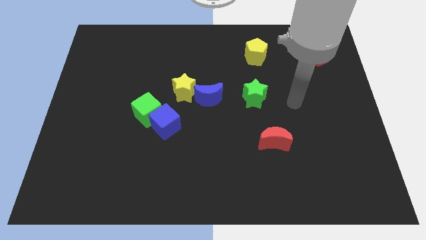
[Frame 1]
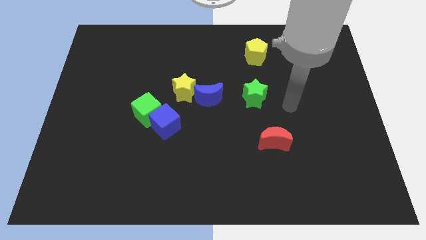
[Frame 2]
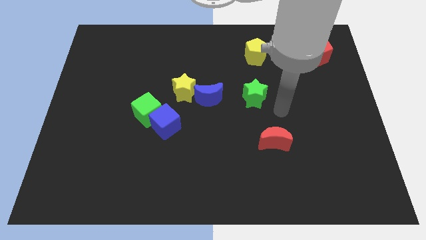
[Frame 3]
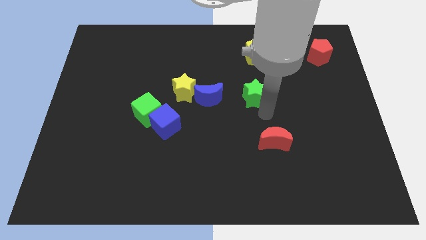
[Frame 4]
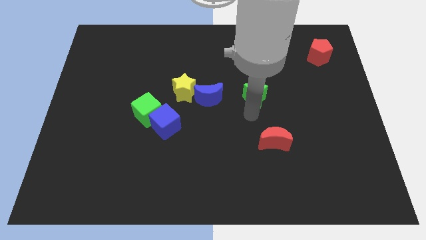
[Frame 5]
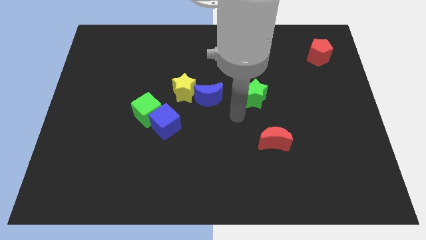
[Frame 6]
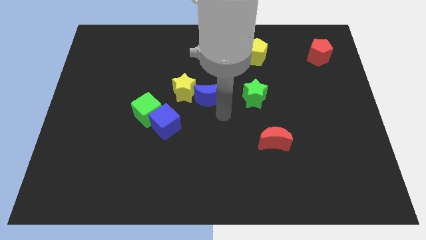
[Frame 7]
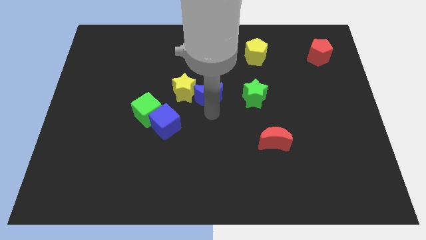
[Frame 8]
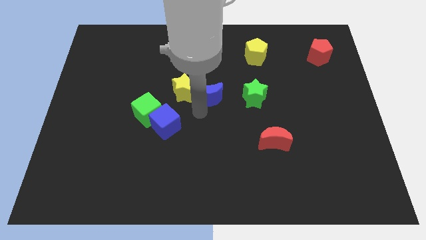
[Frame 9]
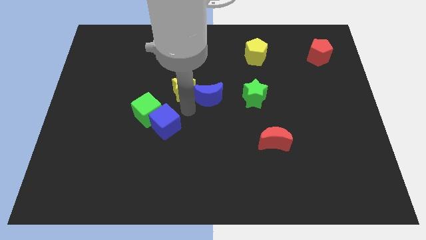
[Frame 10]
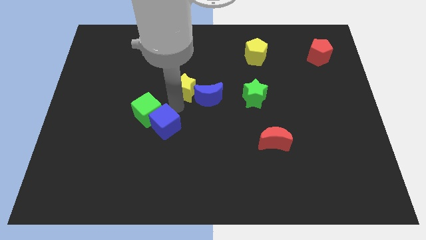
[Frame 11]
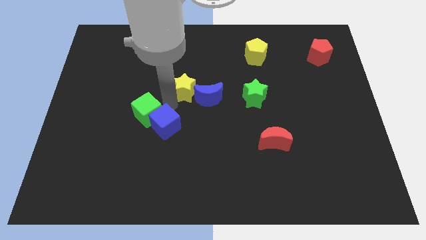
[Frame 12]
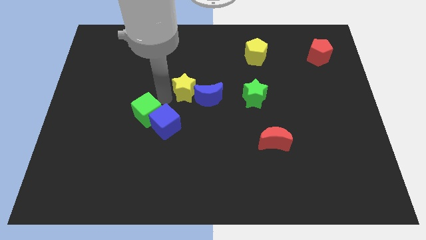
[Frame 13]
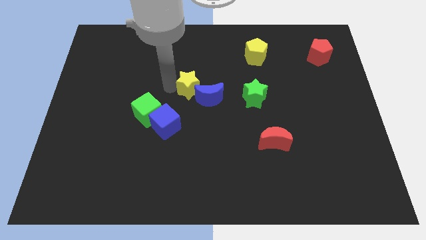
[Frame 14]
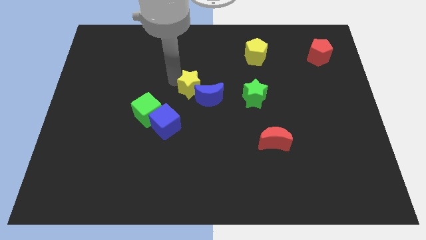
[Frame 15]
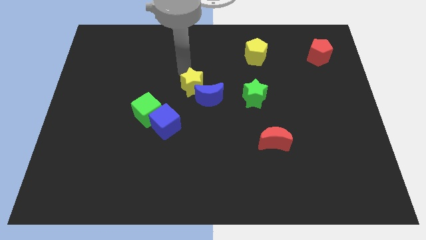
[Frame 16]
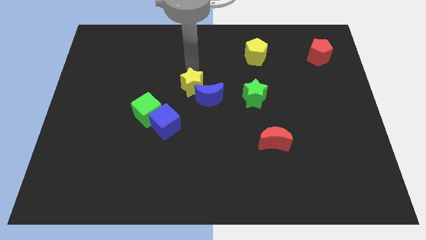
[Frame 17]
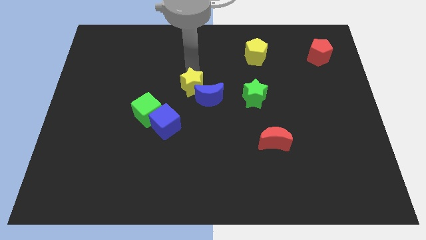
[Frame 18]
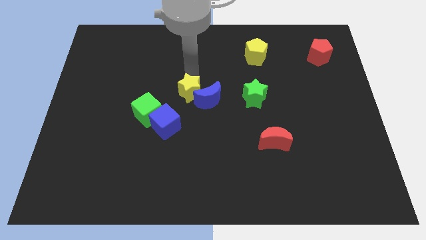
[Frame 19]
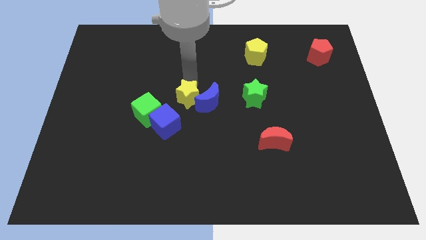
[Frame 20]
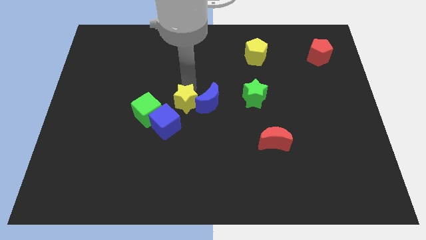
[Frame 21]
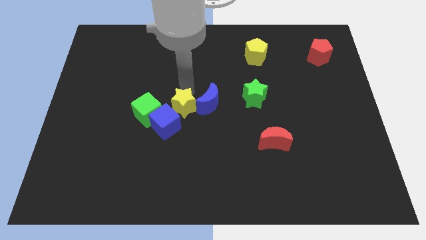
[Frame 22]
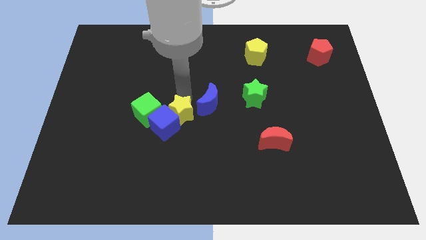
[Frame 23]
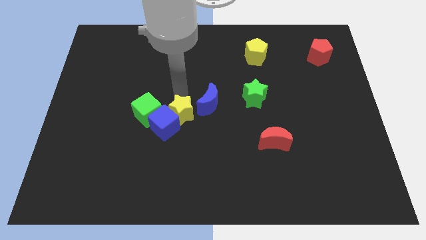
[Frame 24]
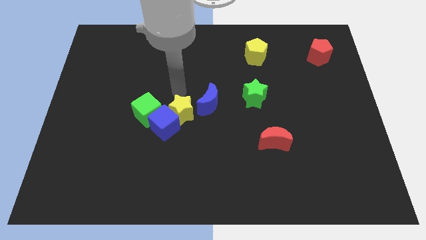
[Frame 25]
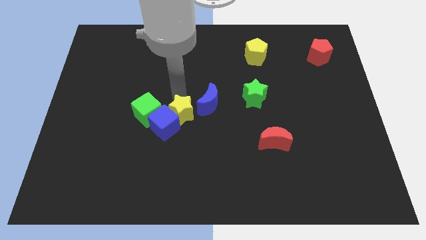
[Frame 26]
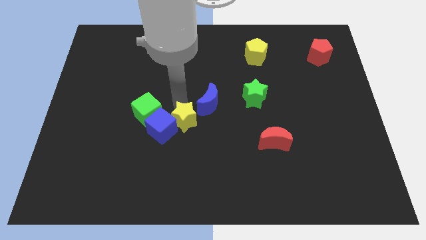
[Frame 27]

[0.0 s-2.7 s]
slightly slide the yellow star down

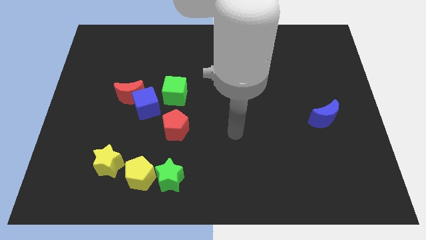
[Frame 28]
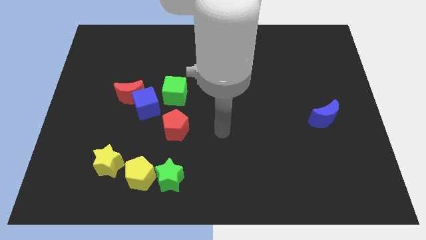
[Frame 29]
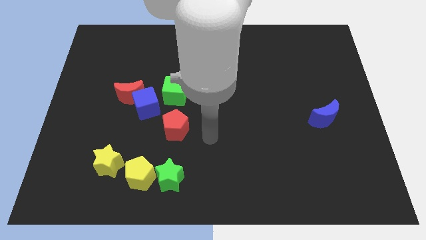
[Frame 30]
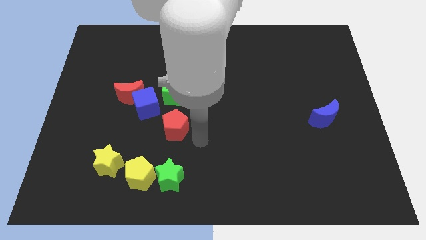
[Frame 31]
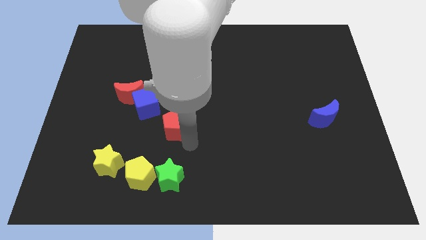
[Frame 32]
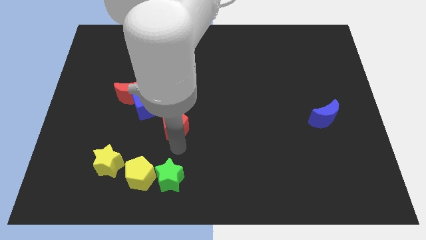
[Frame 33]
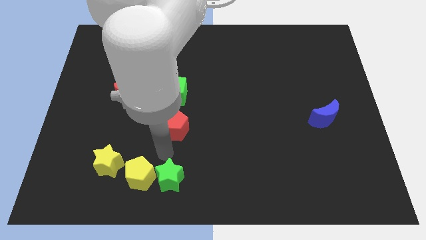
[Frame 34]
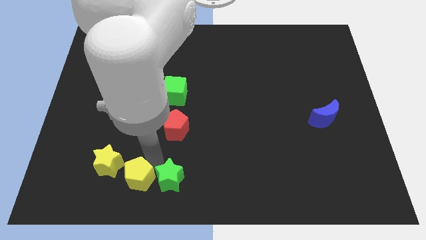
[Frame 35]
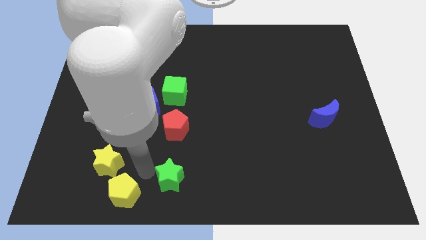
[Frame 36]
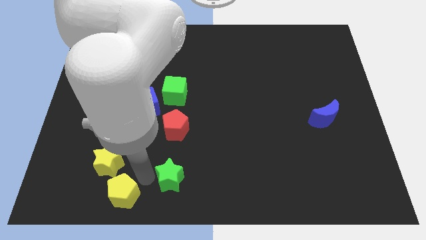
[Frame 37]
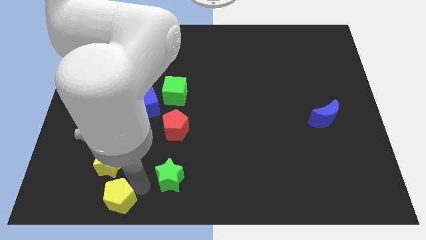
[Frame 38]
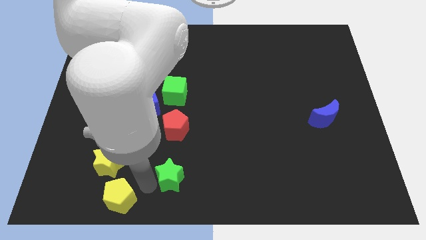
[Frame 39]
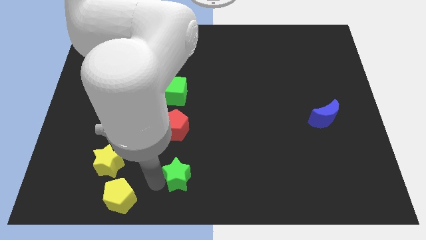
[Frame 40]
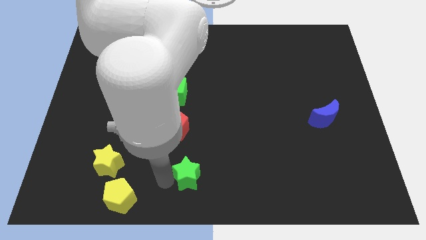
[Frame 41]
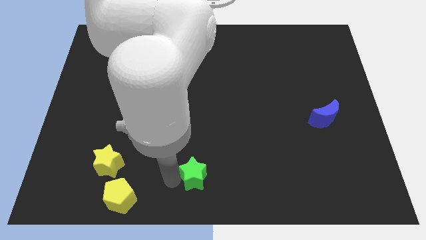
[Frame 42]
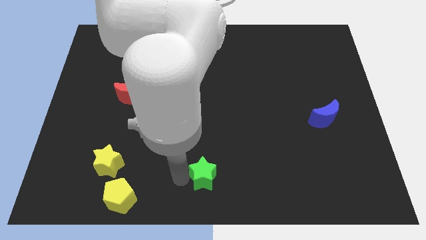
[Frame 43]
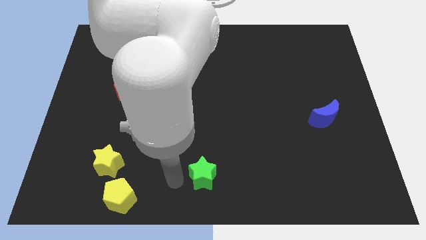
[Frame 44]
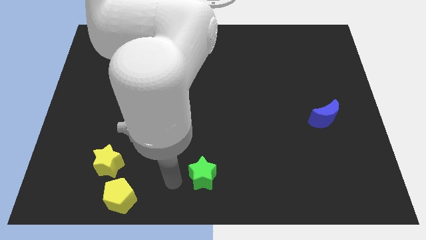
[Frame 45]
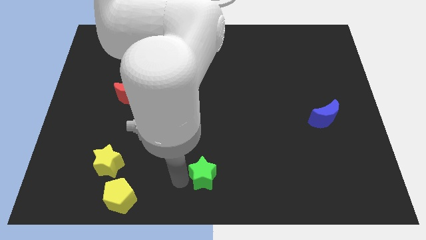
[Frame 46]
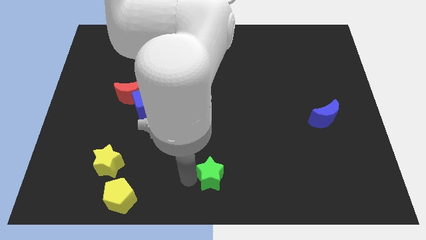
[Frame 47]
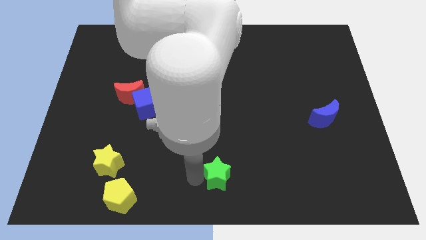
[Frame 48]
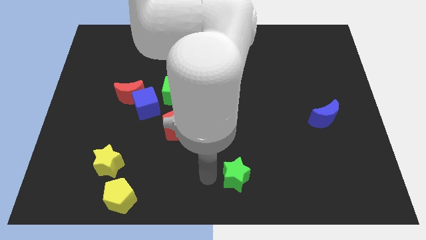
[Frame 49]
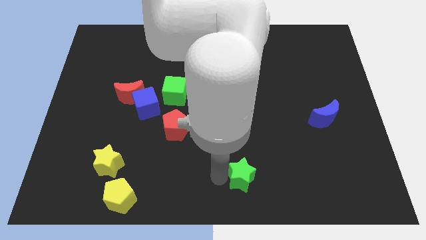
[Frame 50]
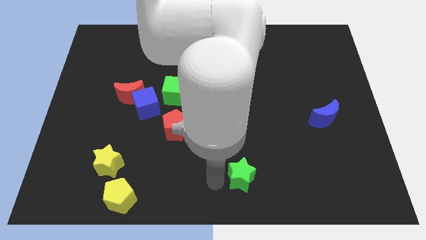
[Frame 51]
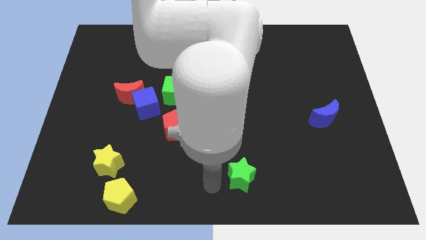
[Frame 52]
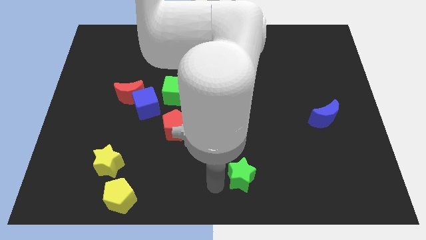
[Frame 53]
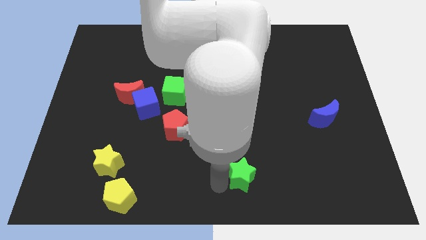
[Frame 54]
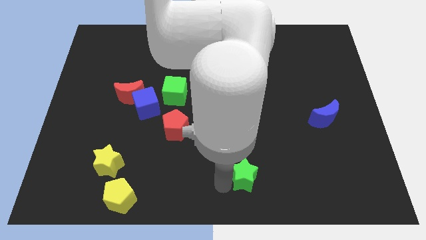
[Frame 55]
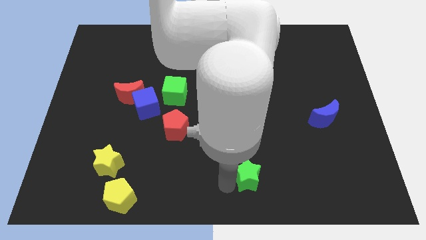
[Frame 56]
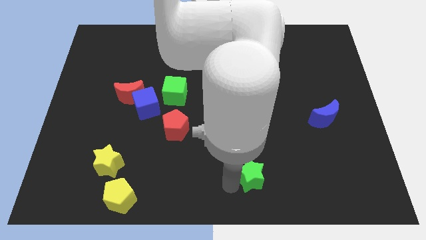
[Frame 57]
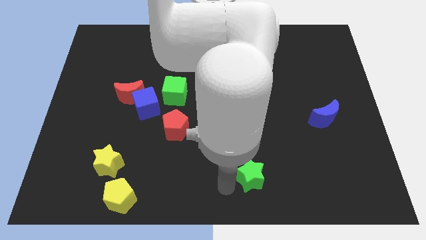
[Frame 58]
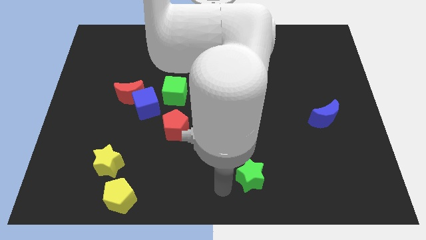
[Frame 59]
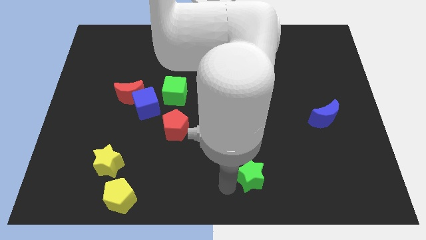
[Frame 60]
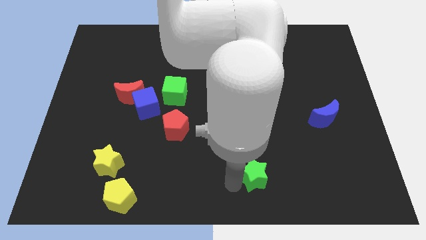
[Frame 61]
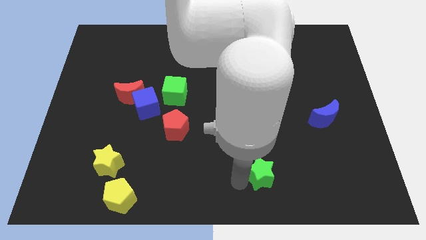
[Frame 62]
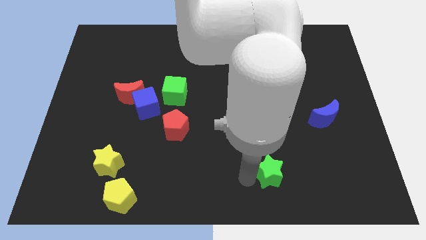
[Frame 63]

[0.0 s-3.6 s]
slide the green star right

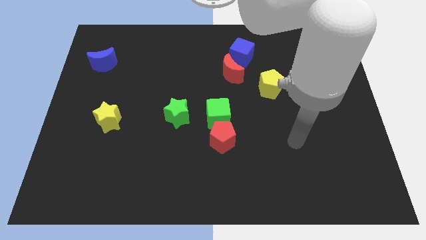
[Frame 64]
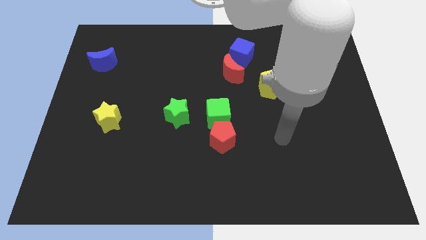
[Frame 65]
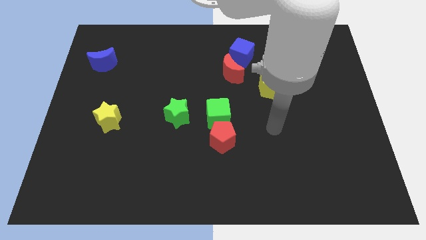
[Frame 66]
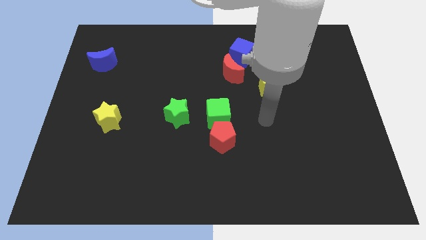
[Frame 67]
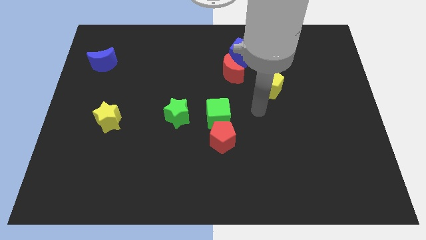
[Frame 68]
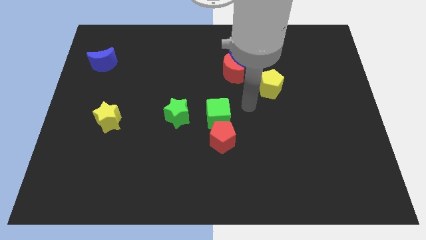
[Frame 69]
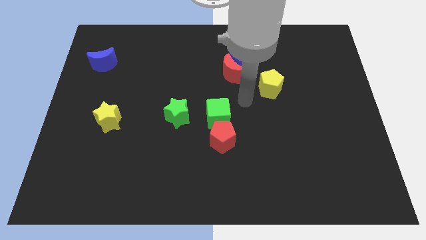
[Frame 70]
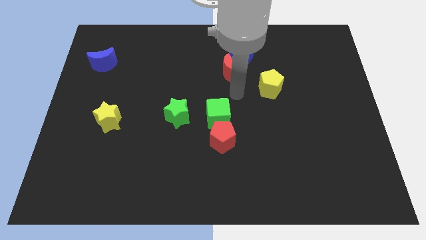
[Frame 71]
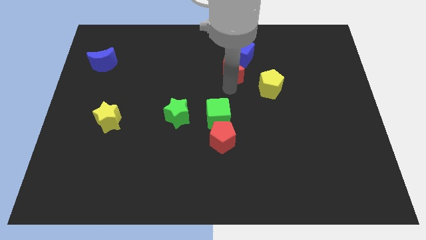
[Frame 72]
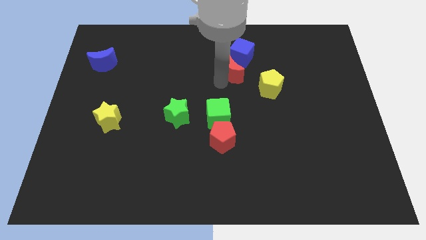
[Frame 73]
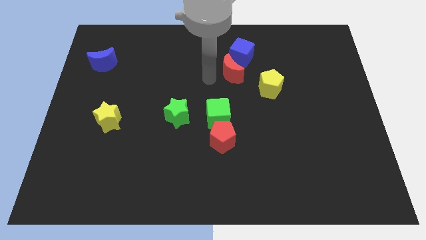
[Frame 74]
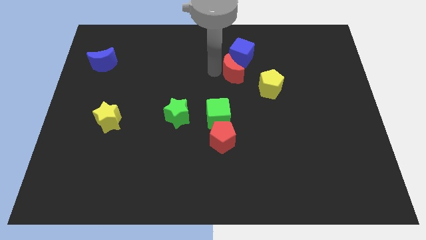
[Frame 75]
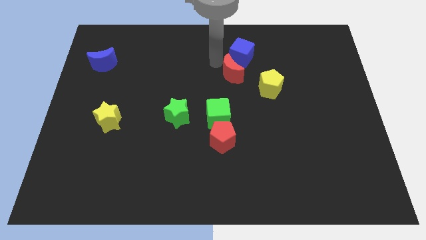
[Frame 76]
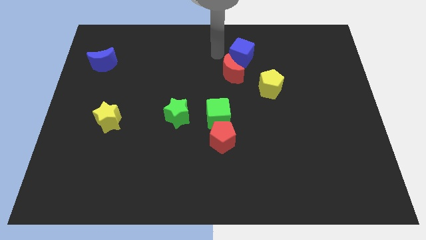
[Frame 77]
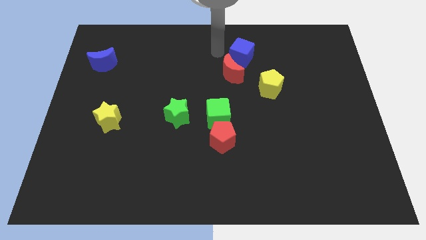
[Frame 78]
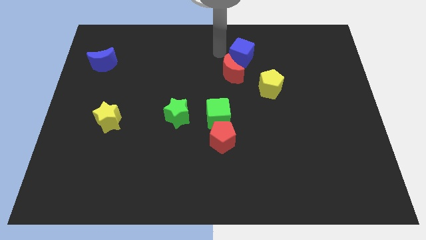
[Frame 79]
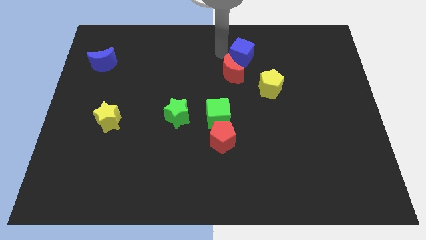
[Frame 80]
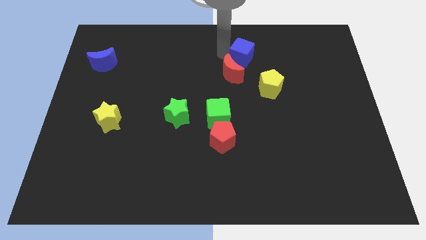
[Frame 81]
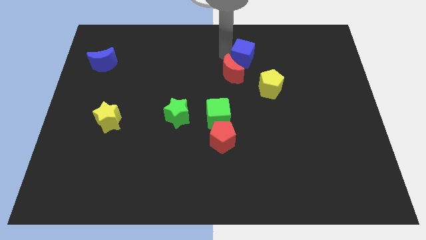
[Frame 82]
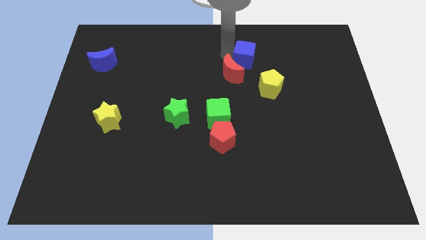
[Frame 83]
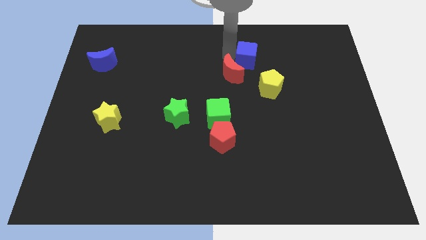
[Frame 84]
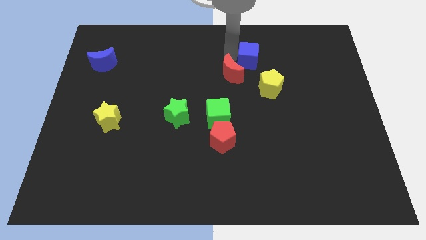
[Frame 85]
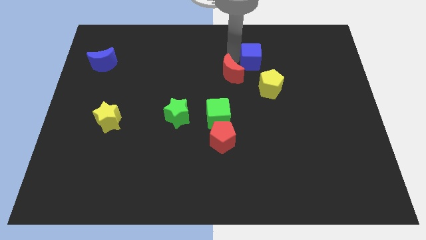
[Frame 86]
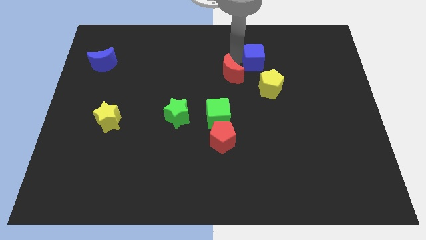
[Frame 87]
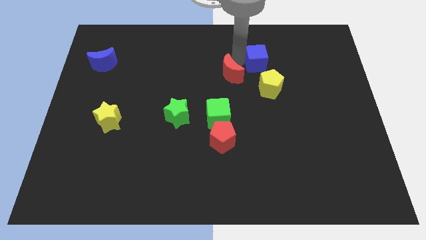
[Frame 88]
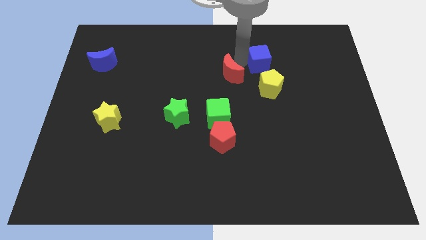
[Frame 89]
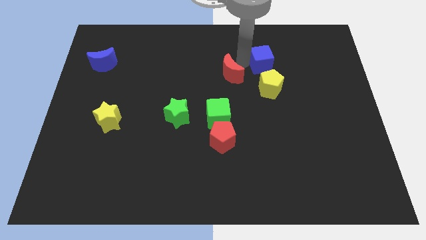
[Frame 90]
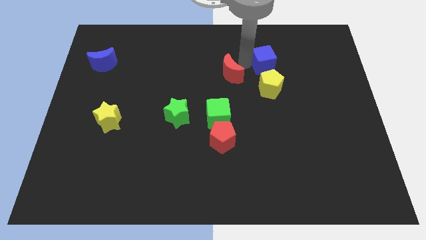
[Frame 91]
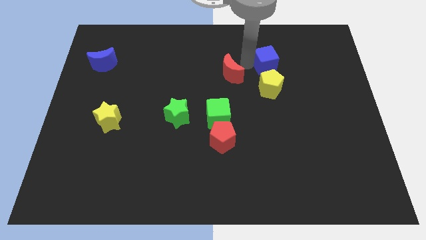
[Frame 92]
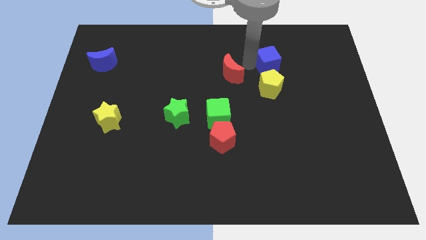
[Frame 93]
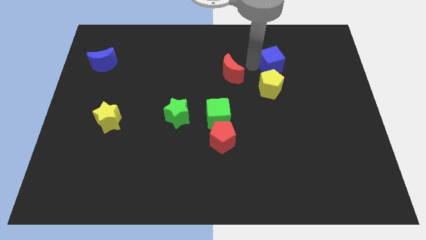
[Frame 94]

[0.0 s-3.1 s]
move the blue cube to the right slightly
